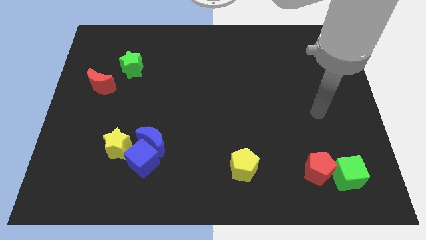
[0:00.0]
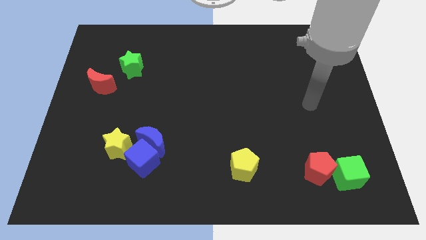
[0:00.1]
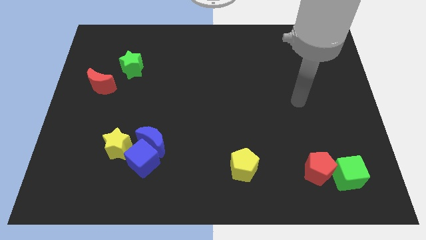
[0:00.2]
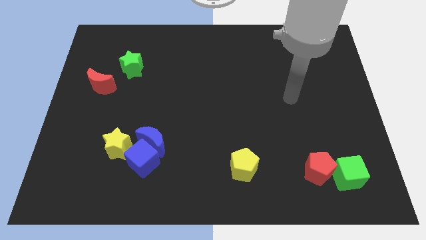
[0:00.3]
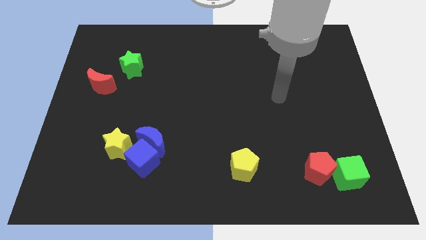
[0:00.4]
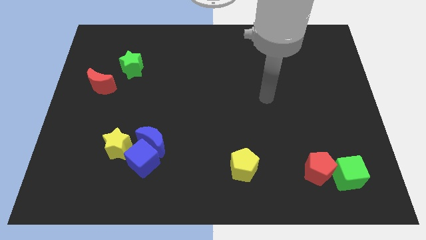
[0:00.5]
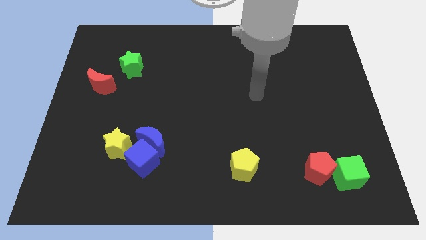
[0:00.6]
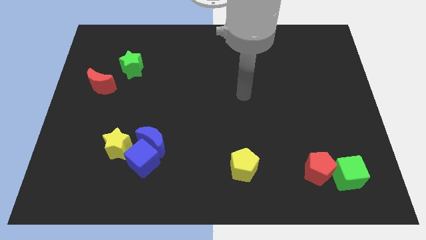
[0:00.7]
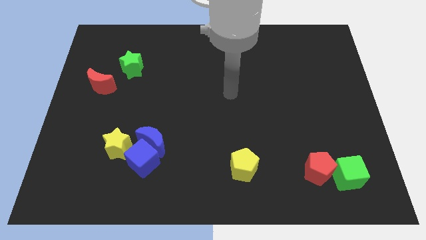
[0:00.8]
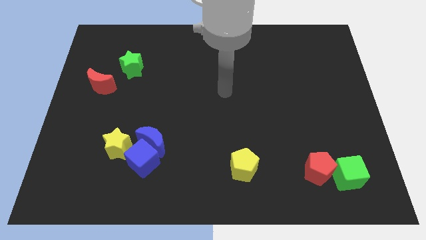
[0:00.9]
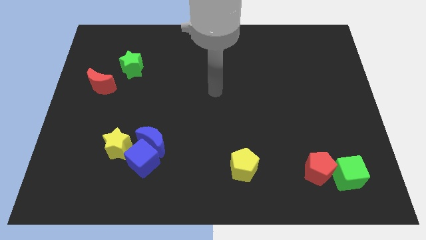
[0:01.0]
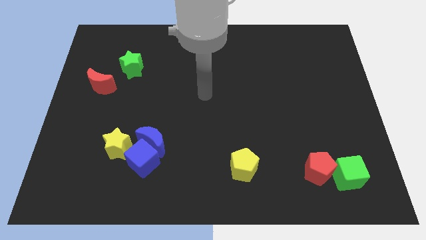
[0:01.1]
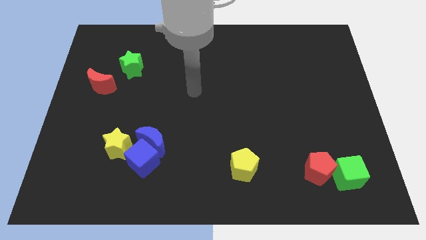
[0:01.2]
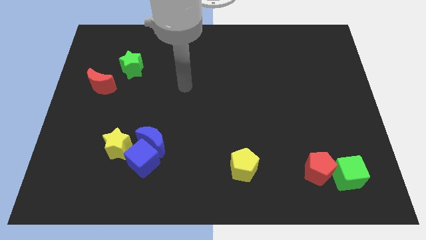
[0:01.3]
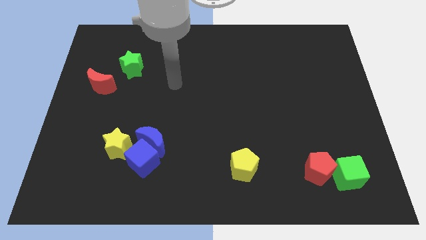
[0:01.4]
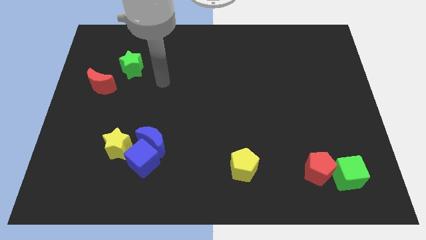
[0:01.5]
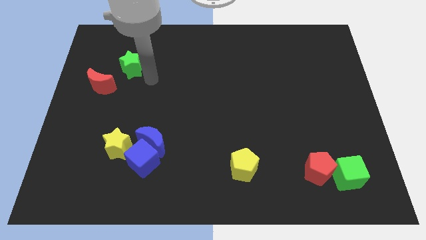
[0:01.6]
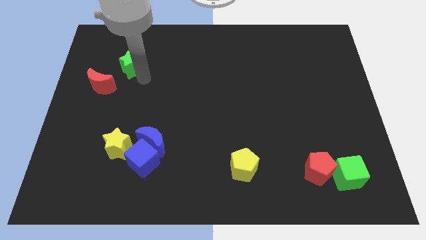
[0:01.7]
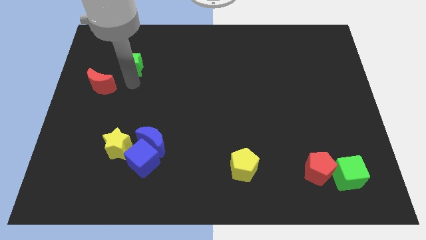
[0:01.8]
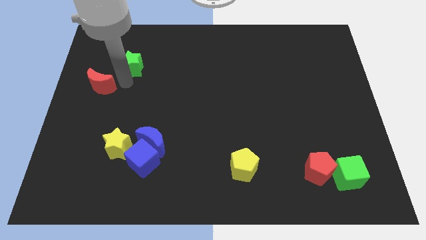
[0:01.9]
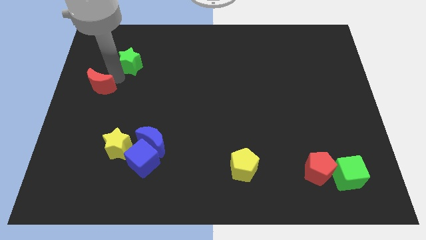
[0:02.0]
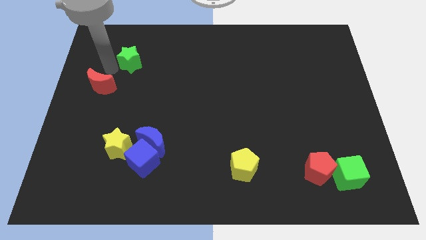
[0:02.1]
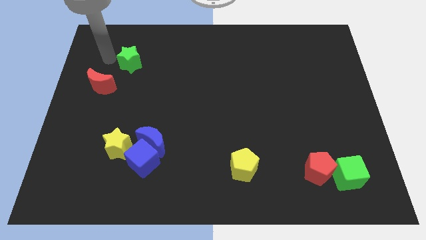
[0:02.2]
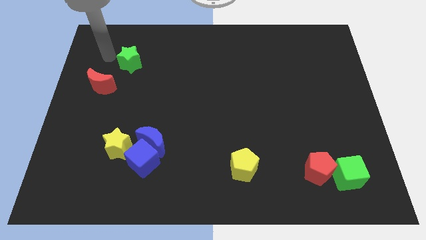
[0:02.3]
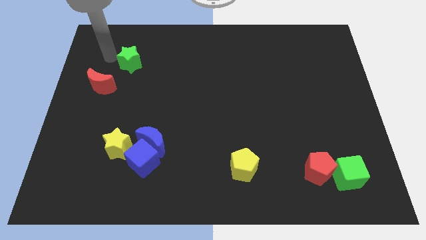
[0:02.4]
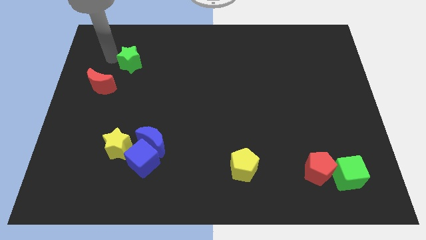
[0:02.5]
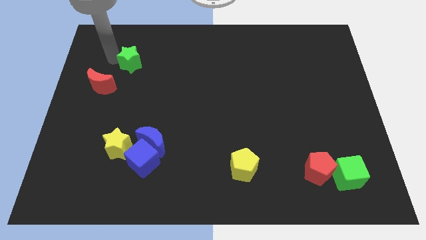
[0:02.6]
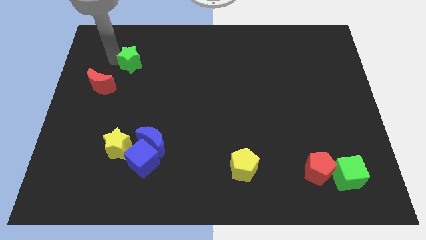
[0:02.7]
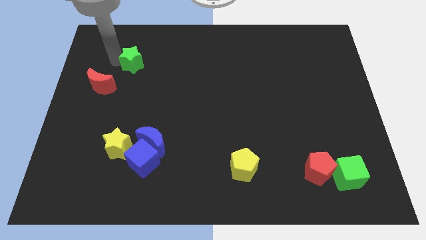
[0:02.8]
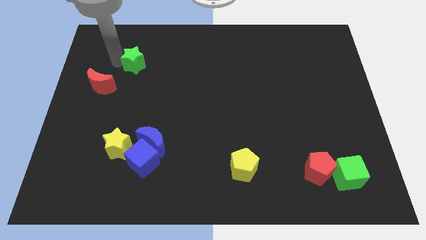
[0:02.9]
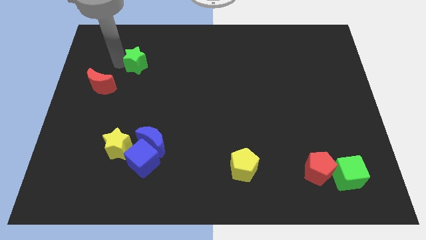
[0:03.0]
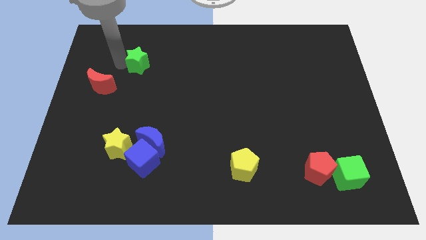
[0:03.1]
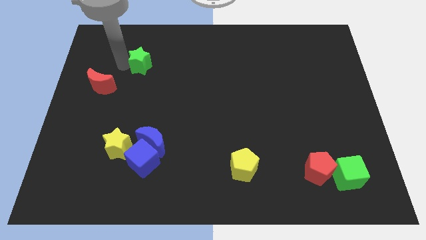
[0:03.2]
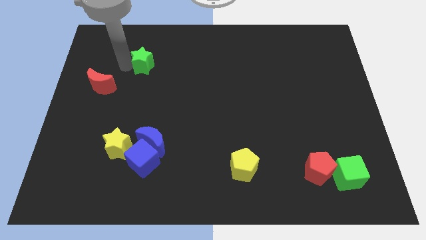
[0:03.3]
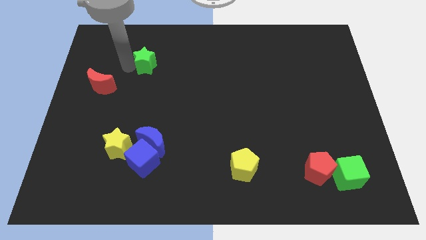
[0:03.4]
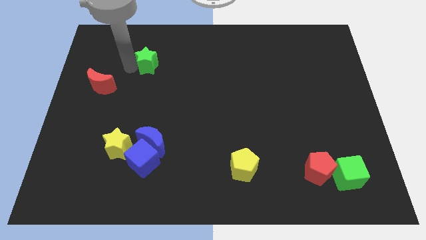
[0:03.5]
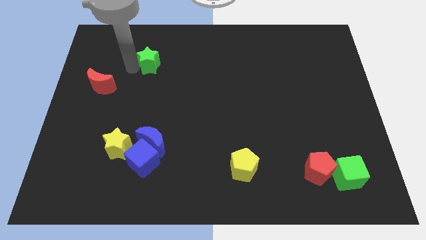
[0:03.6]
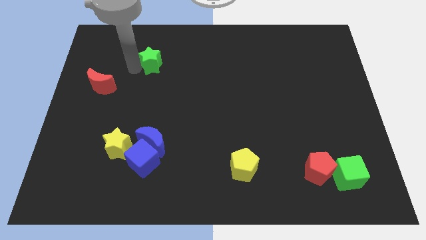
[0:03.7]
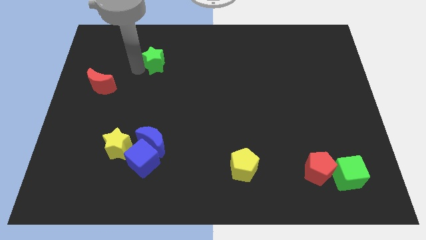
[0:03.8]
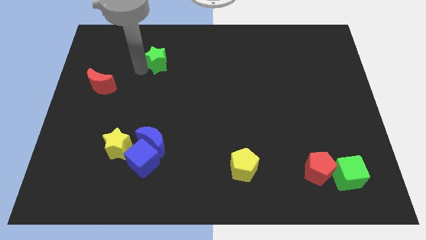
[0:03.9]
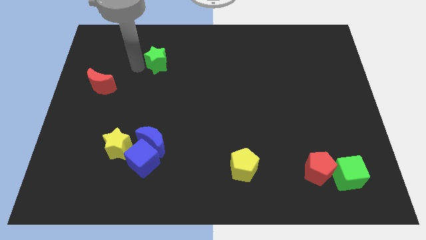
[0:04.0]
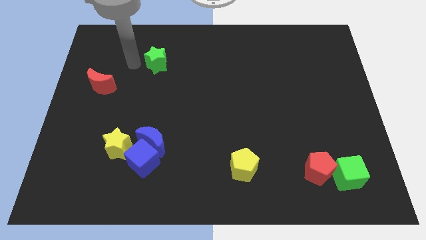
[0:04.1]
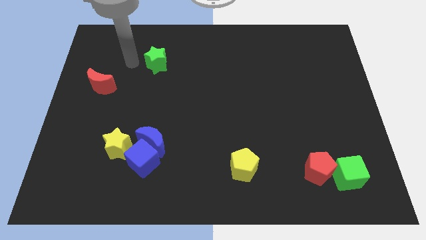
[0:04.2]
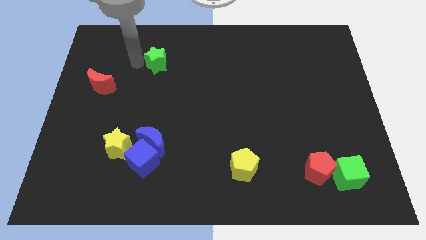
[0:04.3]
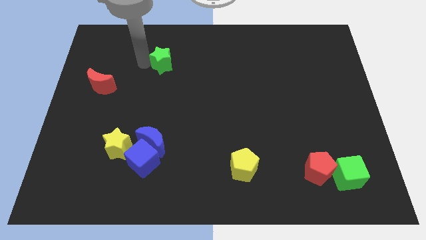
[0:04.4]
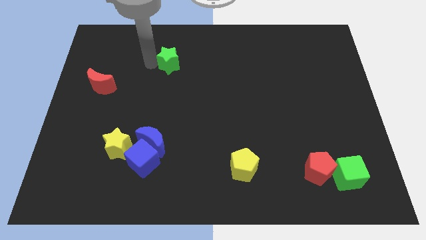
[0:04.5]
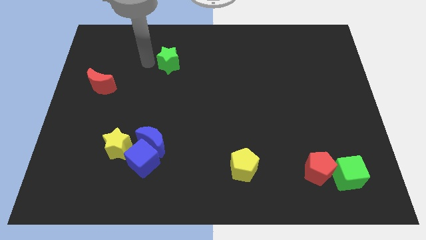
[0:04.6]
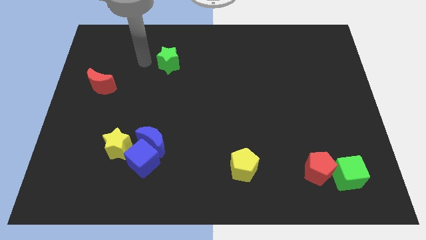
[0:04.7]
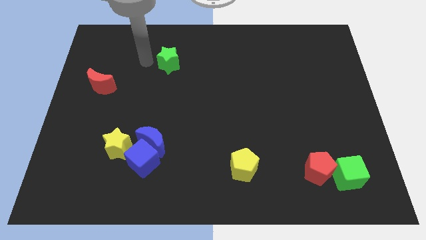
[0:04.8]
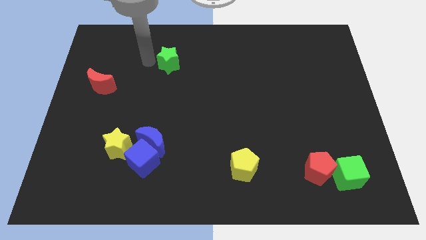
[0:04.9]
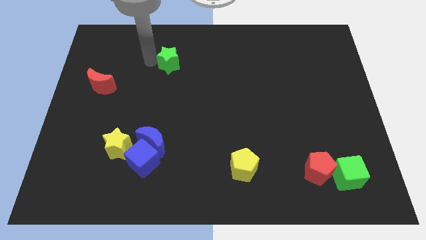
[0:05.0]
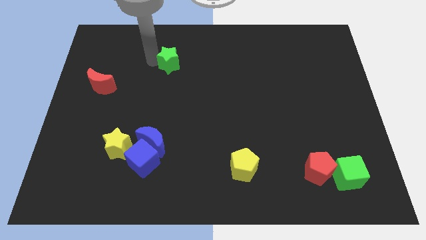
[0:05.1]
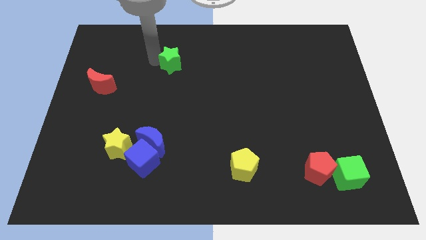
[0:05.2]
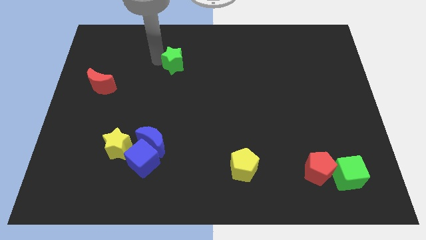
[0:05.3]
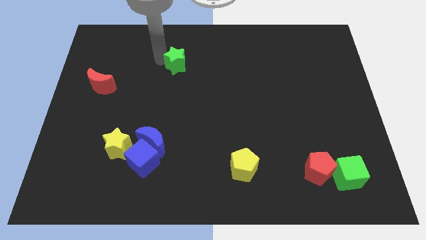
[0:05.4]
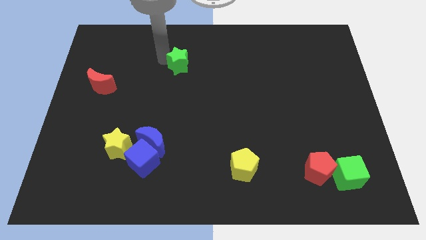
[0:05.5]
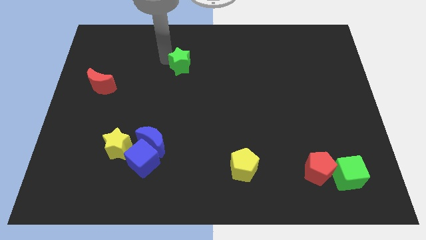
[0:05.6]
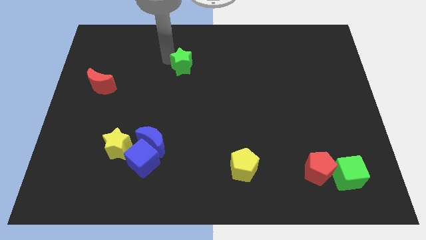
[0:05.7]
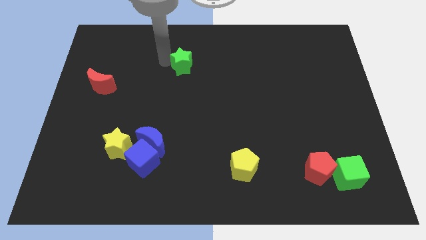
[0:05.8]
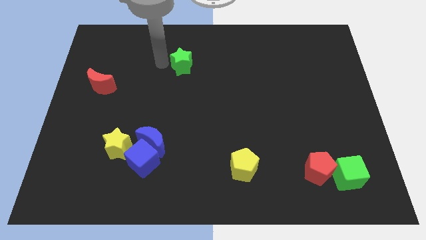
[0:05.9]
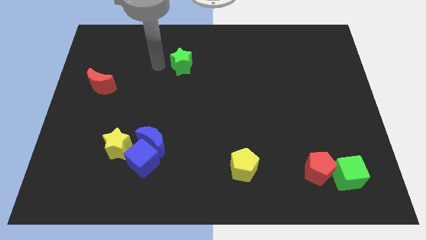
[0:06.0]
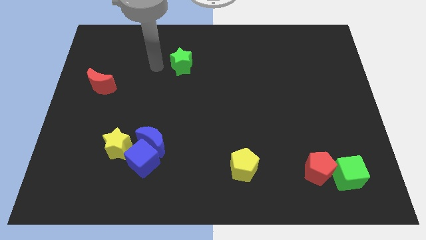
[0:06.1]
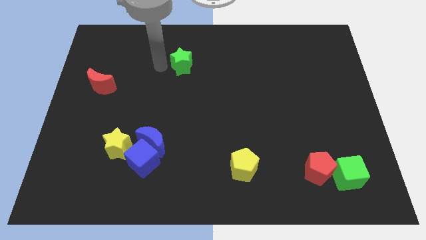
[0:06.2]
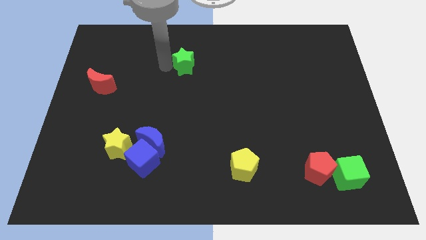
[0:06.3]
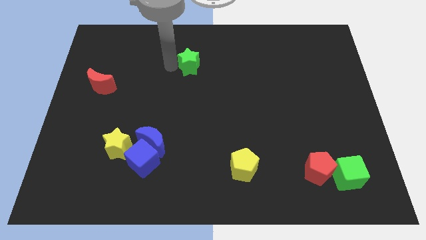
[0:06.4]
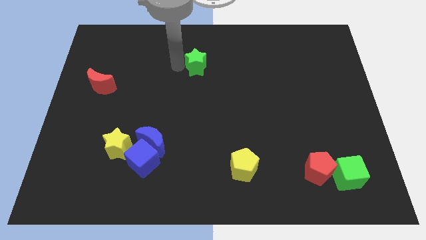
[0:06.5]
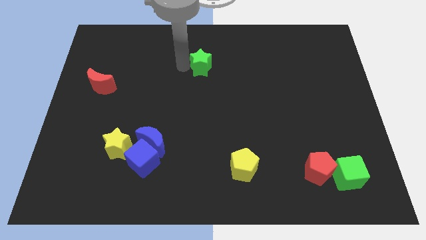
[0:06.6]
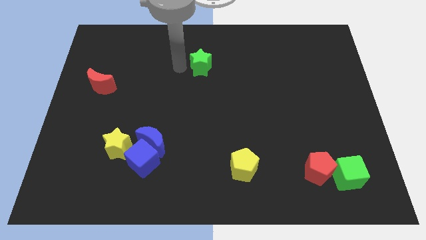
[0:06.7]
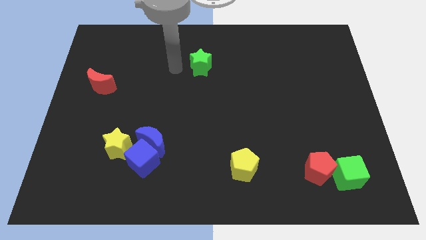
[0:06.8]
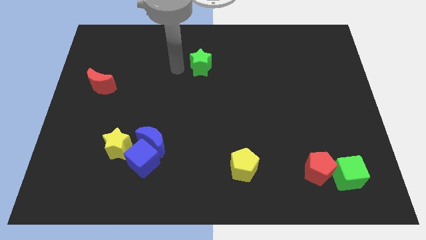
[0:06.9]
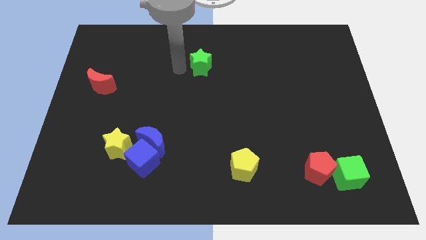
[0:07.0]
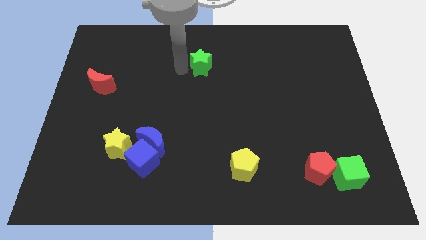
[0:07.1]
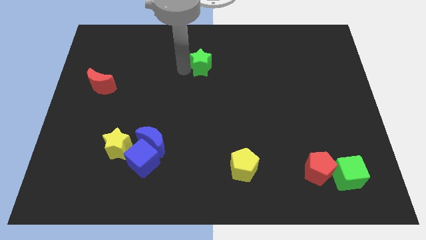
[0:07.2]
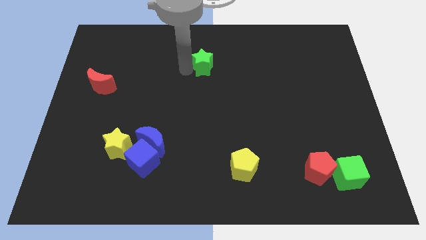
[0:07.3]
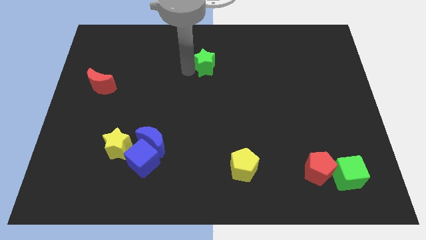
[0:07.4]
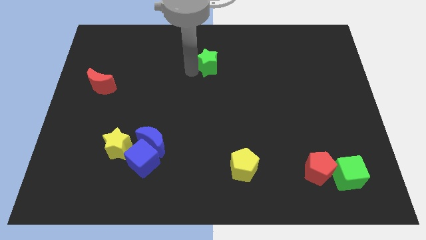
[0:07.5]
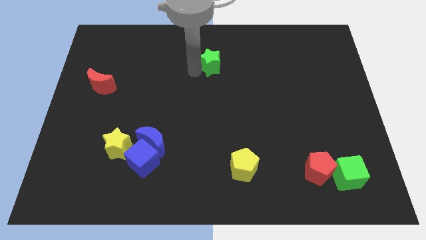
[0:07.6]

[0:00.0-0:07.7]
slide the green star to the right
